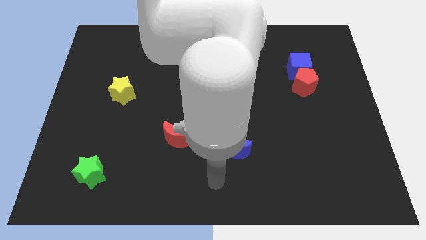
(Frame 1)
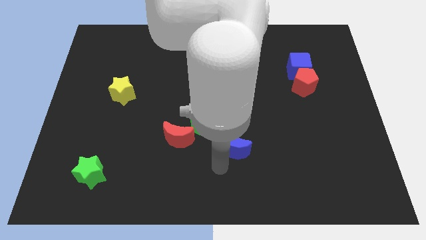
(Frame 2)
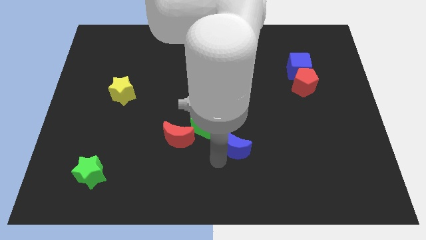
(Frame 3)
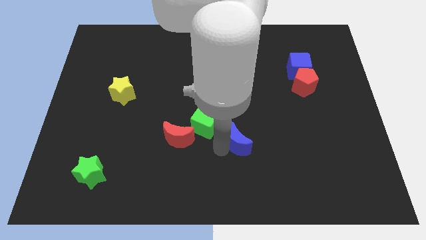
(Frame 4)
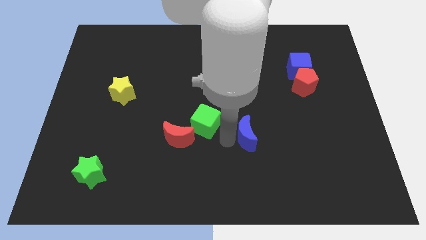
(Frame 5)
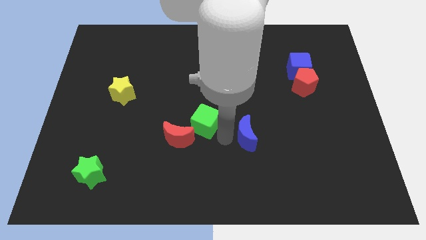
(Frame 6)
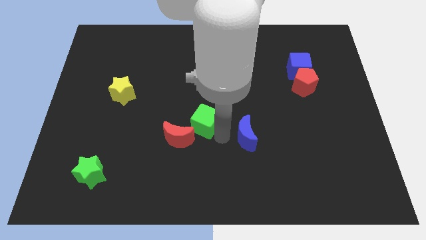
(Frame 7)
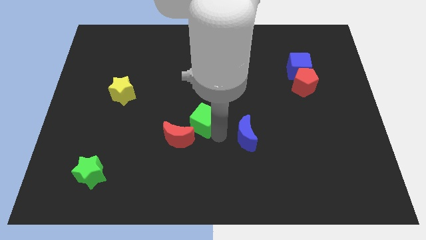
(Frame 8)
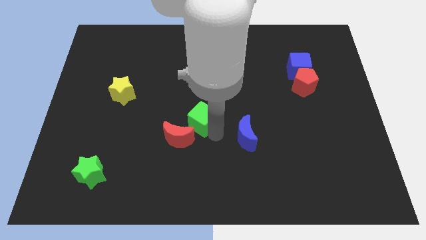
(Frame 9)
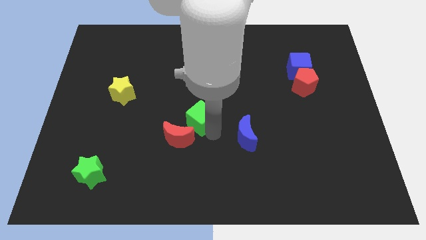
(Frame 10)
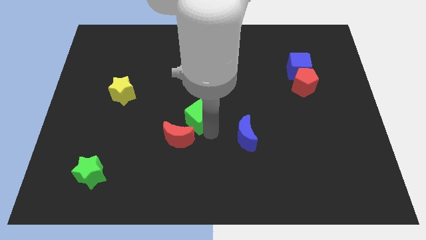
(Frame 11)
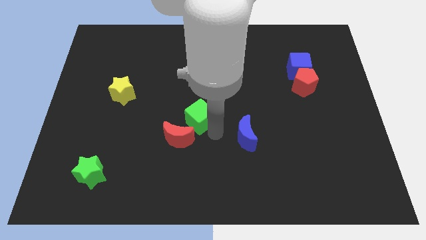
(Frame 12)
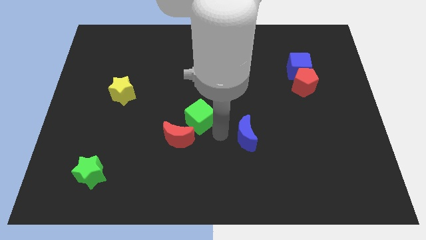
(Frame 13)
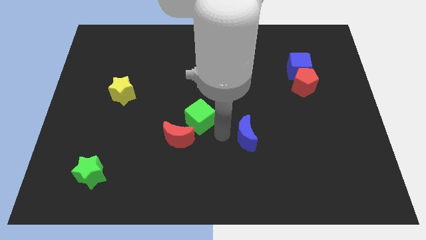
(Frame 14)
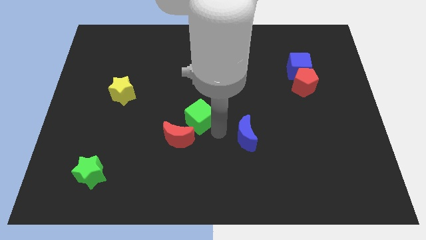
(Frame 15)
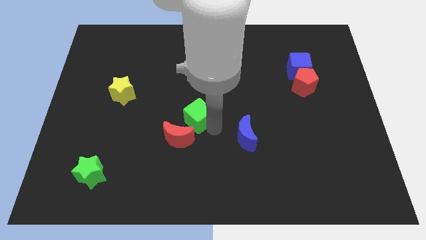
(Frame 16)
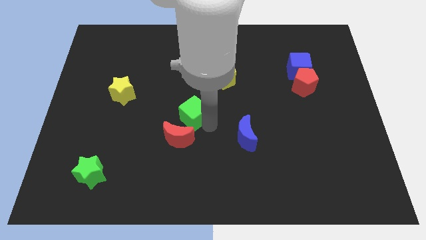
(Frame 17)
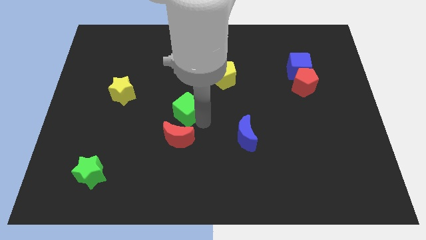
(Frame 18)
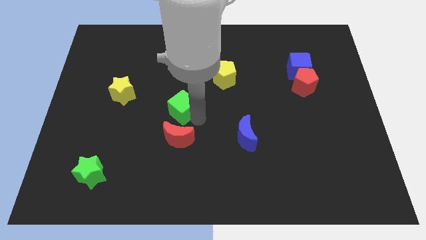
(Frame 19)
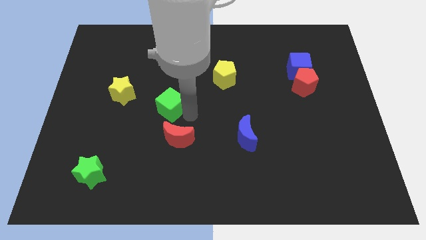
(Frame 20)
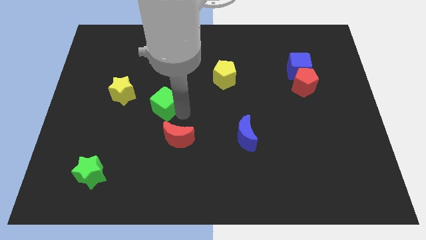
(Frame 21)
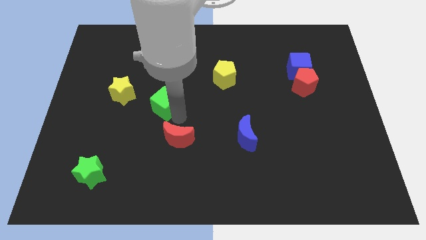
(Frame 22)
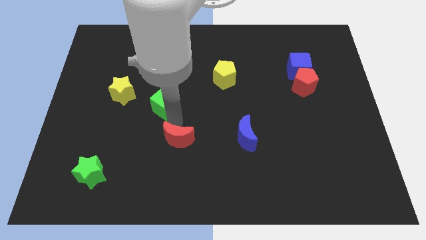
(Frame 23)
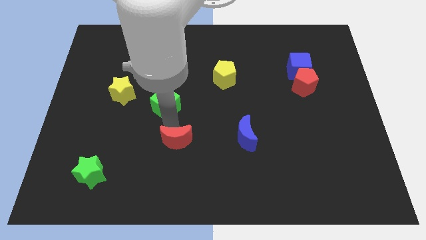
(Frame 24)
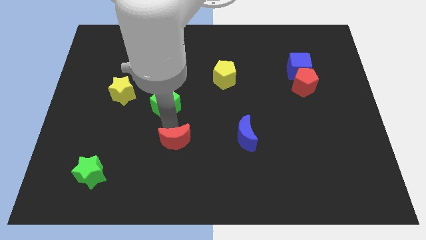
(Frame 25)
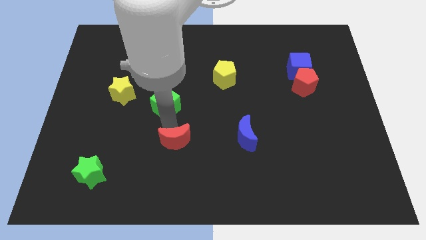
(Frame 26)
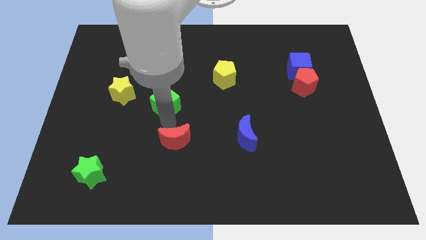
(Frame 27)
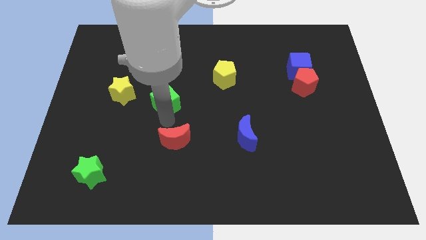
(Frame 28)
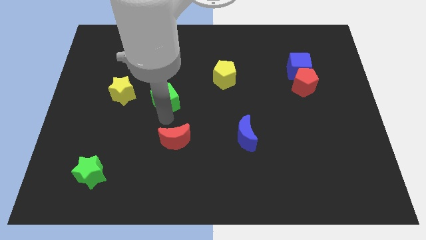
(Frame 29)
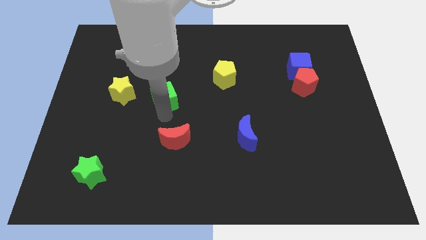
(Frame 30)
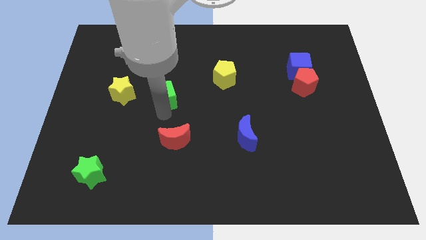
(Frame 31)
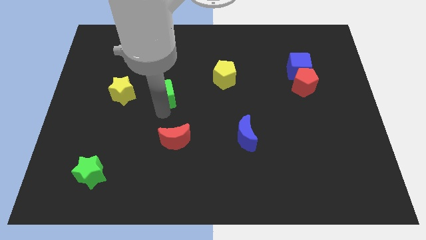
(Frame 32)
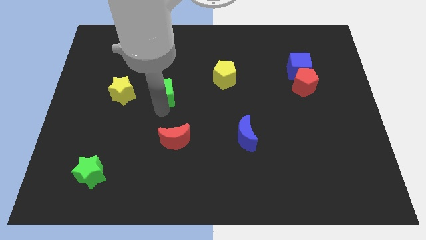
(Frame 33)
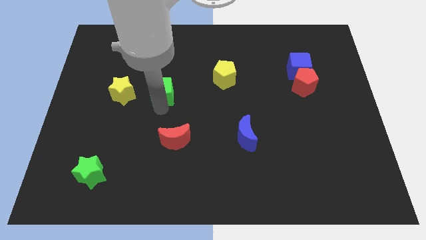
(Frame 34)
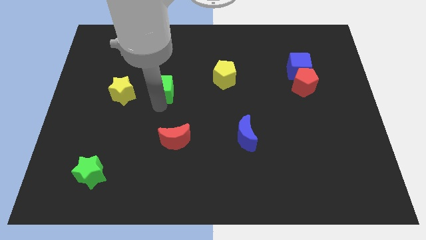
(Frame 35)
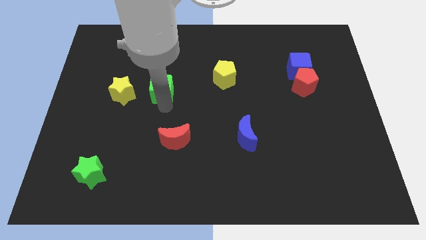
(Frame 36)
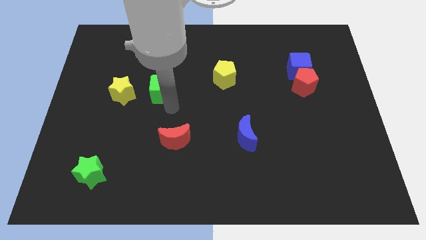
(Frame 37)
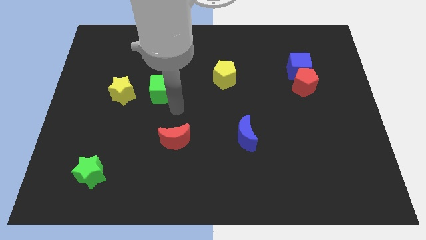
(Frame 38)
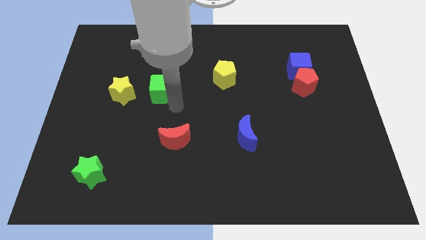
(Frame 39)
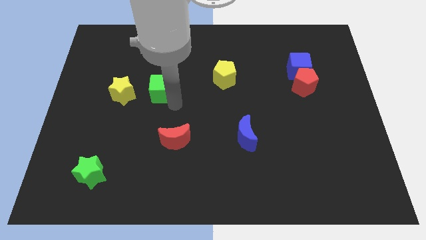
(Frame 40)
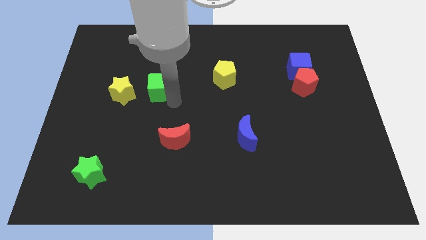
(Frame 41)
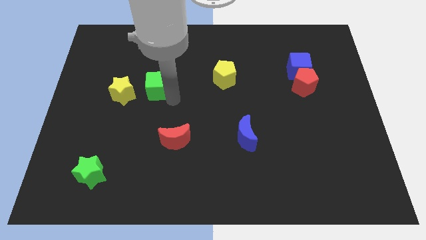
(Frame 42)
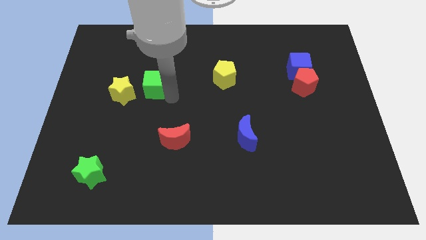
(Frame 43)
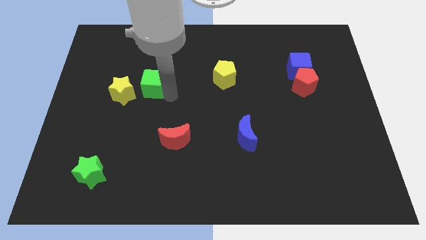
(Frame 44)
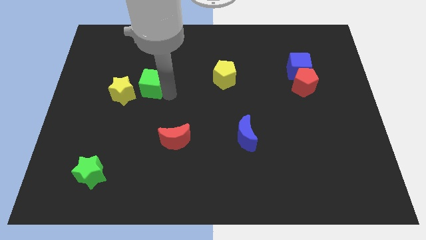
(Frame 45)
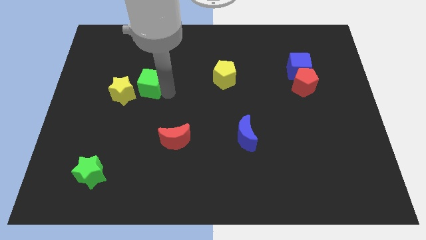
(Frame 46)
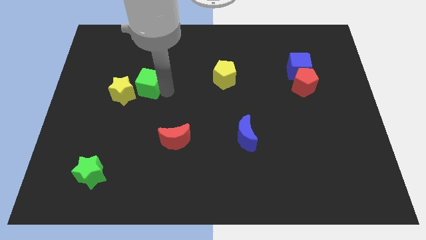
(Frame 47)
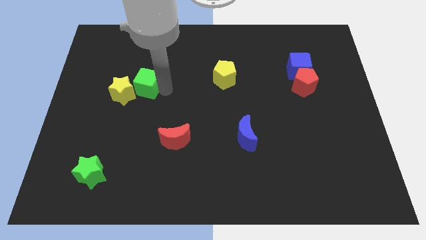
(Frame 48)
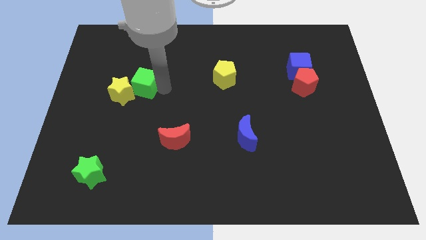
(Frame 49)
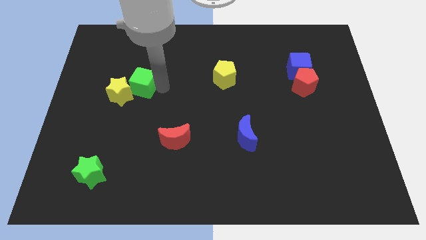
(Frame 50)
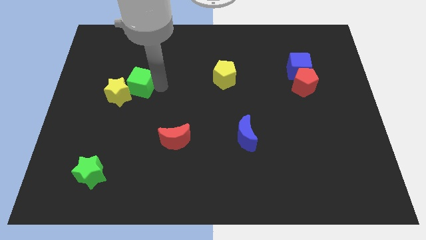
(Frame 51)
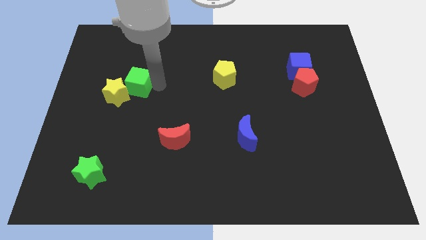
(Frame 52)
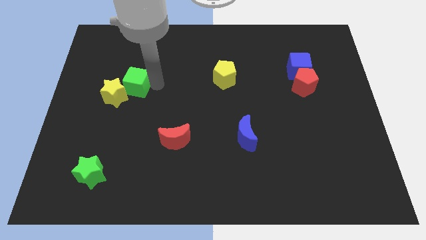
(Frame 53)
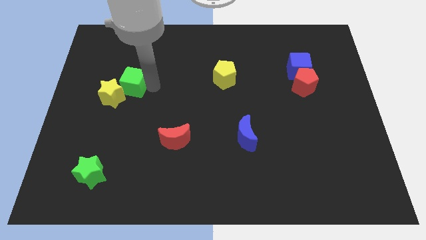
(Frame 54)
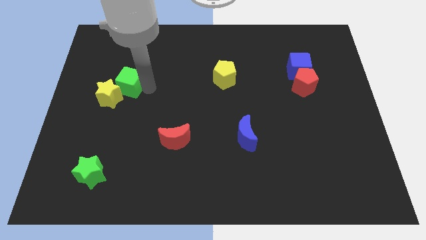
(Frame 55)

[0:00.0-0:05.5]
put the green cube to the top side of the yellow star

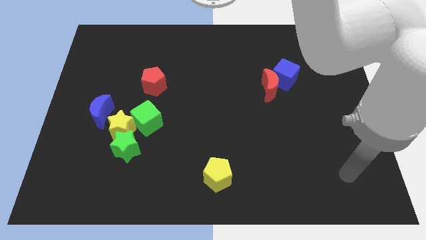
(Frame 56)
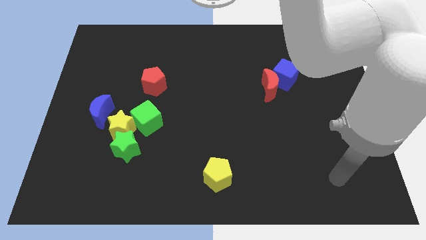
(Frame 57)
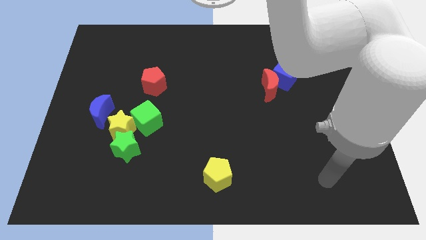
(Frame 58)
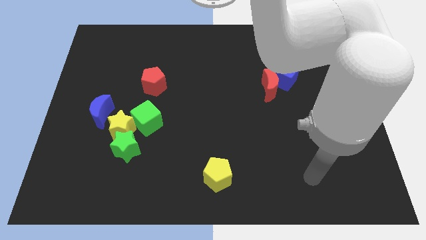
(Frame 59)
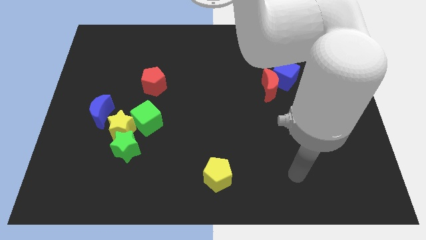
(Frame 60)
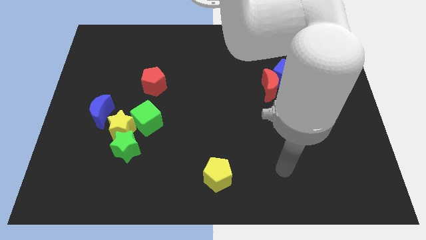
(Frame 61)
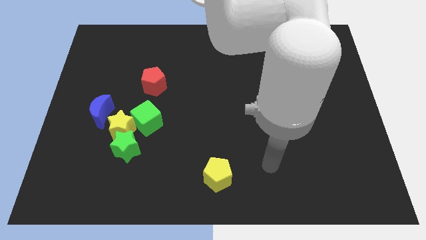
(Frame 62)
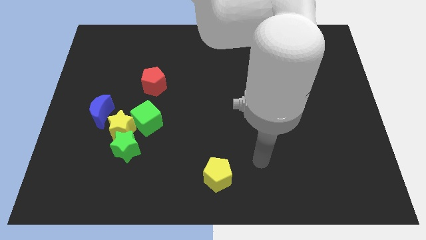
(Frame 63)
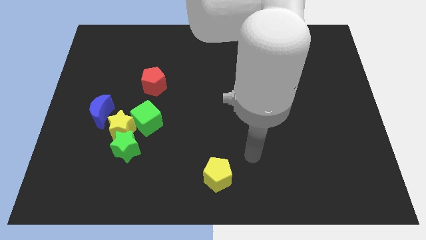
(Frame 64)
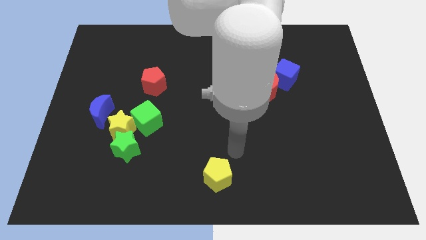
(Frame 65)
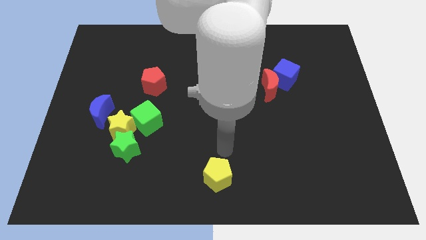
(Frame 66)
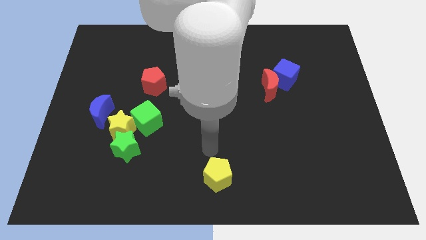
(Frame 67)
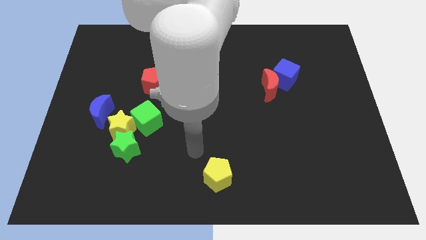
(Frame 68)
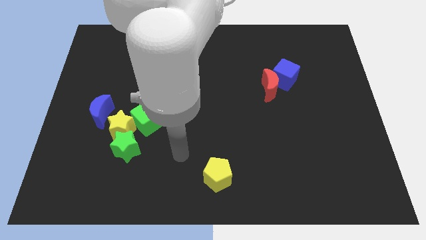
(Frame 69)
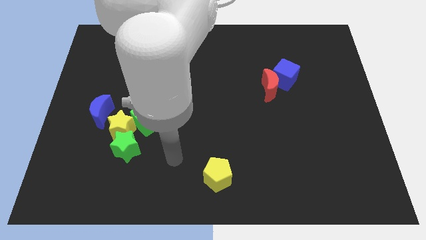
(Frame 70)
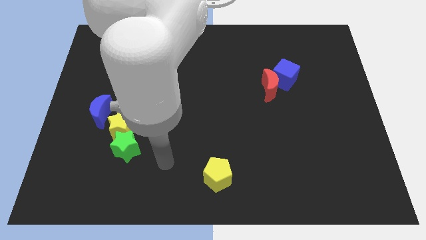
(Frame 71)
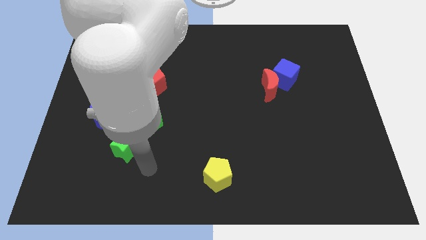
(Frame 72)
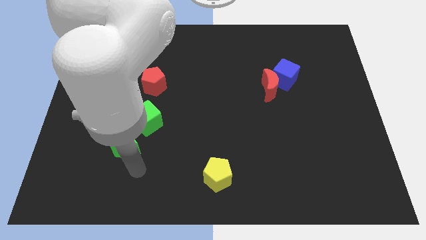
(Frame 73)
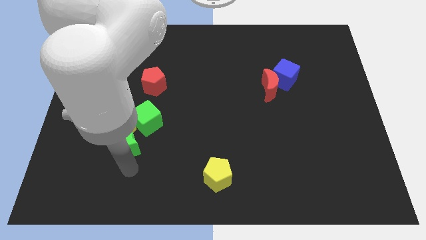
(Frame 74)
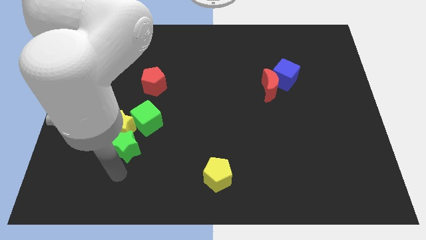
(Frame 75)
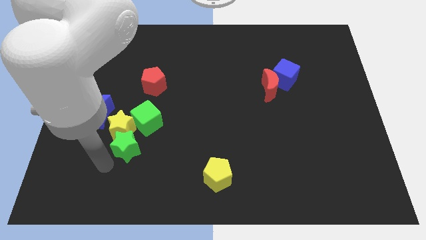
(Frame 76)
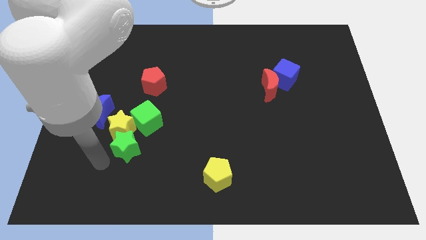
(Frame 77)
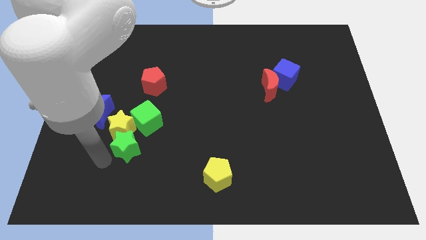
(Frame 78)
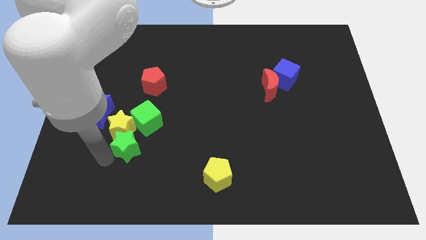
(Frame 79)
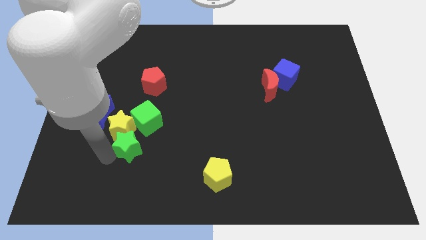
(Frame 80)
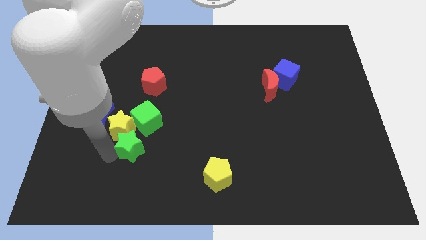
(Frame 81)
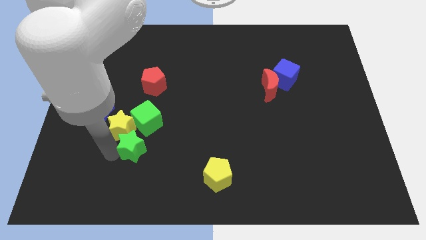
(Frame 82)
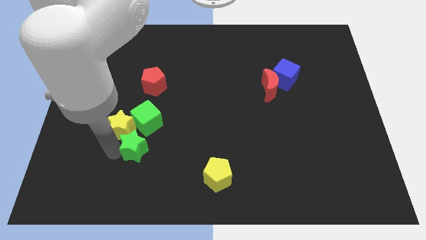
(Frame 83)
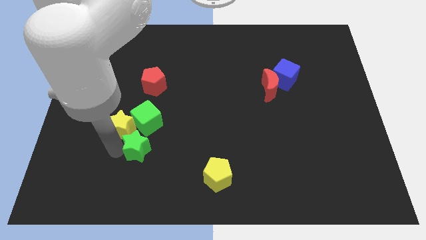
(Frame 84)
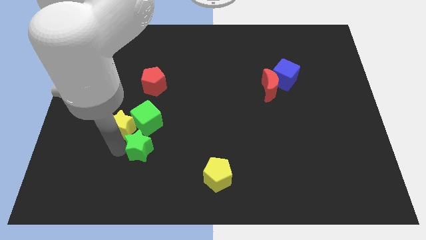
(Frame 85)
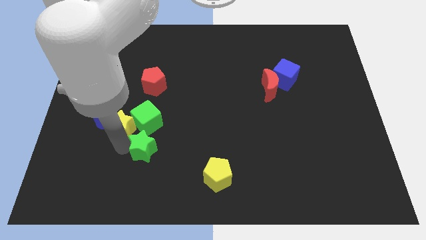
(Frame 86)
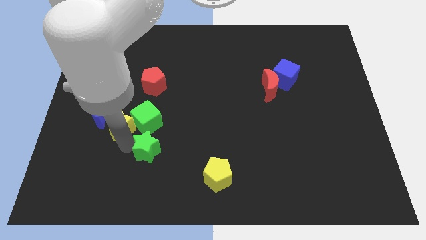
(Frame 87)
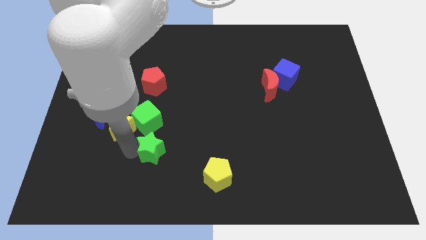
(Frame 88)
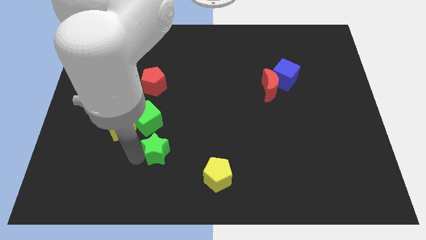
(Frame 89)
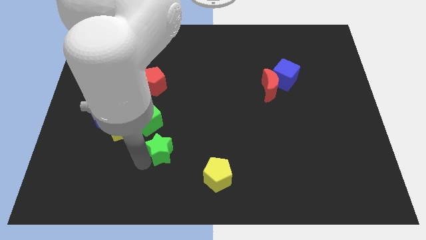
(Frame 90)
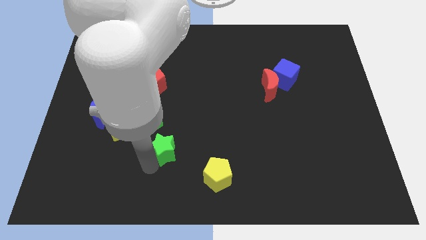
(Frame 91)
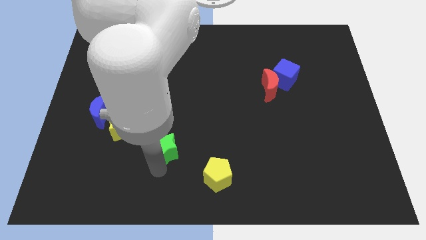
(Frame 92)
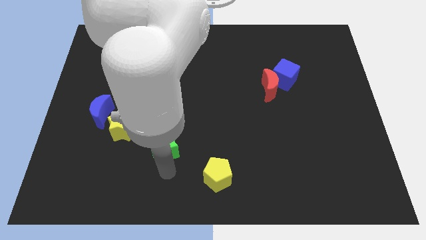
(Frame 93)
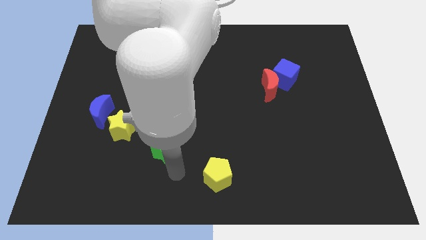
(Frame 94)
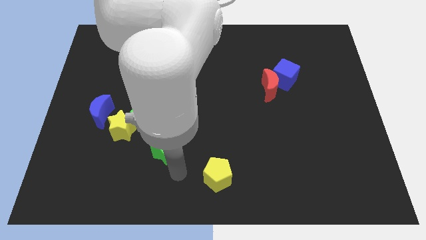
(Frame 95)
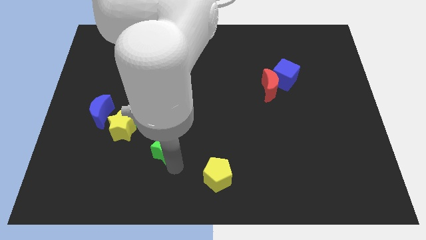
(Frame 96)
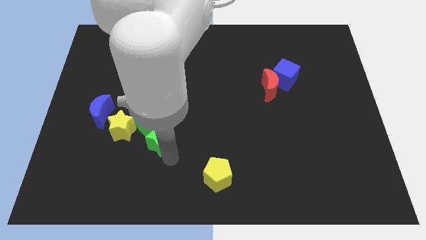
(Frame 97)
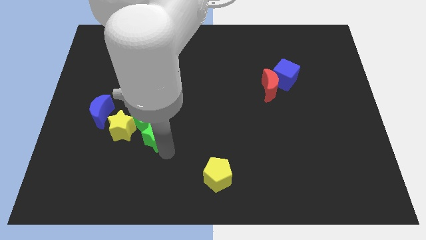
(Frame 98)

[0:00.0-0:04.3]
push the green star below the red pentagon
